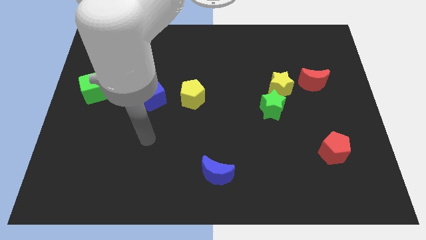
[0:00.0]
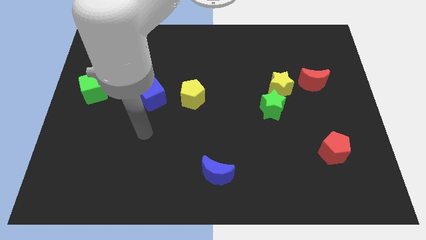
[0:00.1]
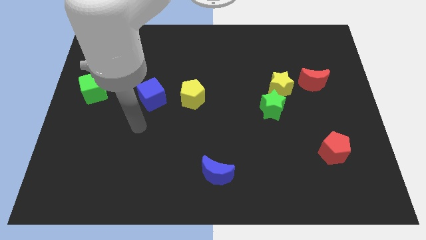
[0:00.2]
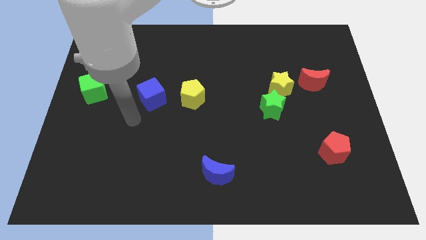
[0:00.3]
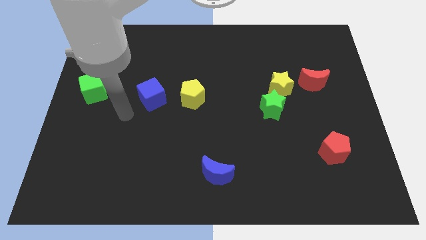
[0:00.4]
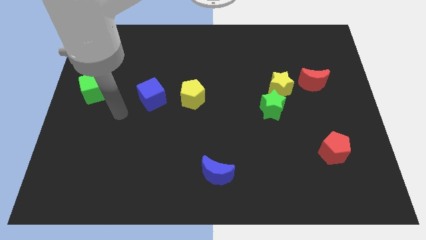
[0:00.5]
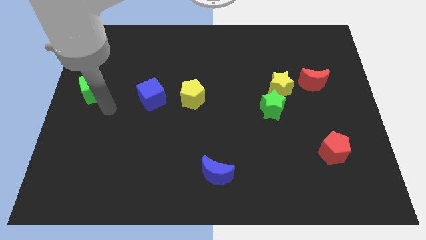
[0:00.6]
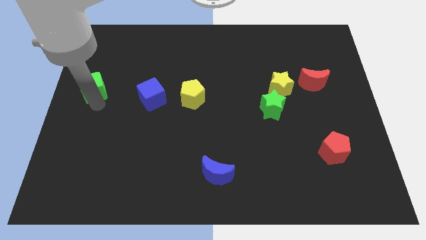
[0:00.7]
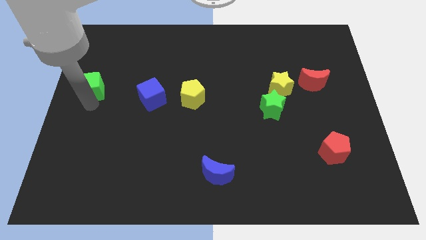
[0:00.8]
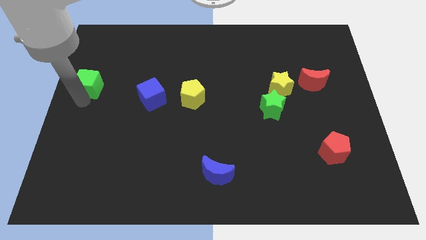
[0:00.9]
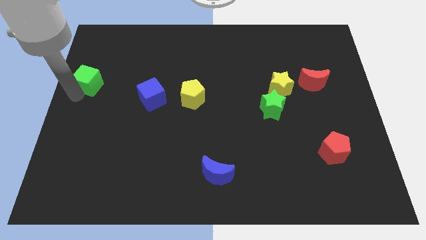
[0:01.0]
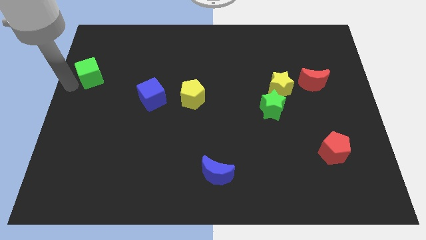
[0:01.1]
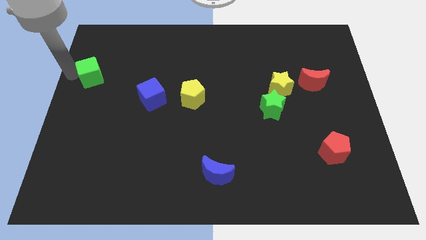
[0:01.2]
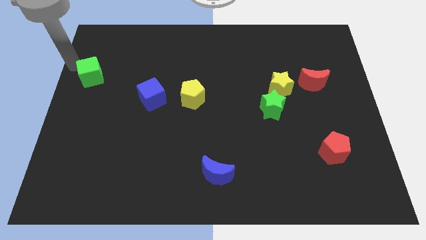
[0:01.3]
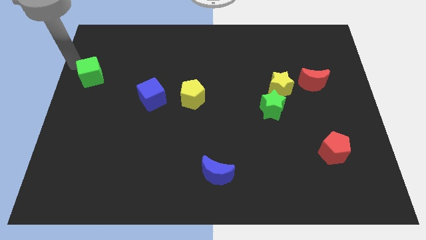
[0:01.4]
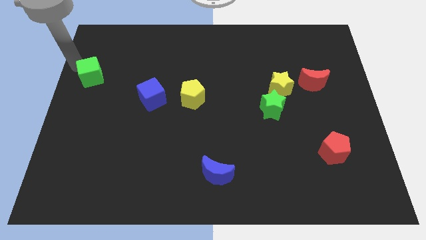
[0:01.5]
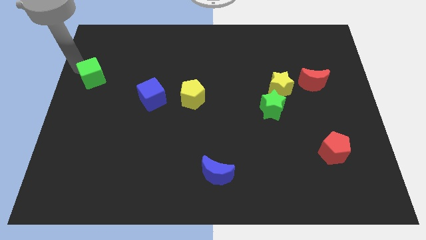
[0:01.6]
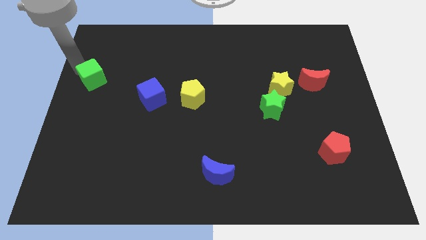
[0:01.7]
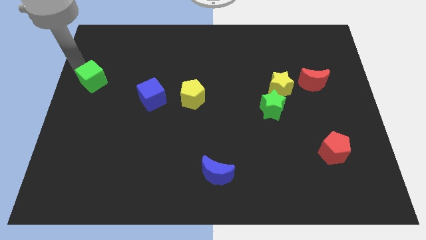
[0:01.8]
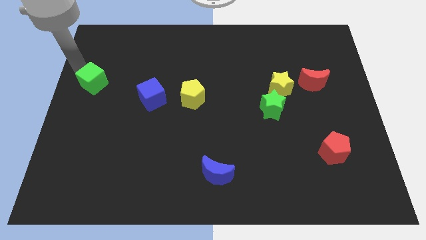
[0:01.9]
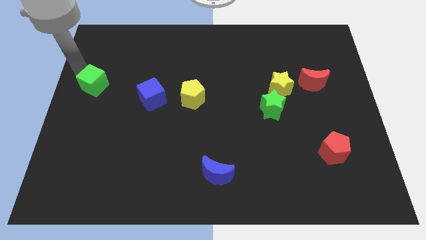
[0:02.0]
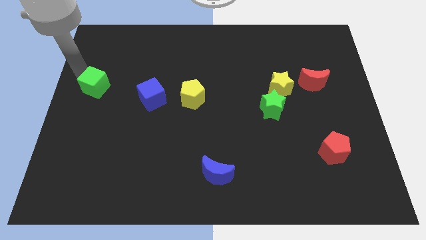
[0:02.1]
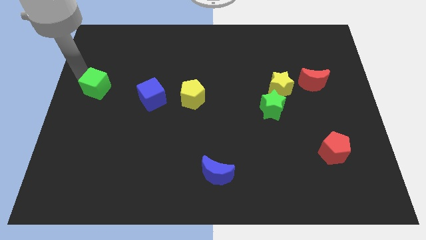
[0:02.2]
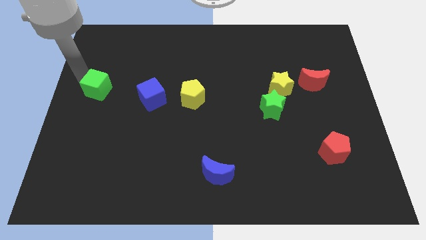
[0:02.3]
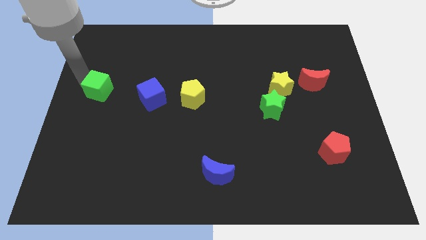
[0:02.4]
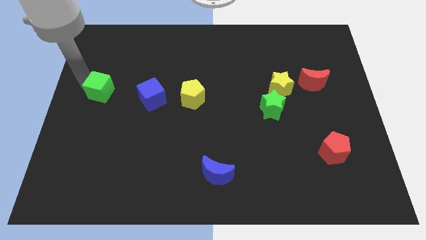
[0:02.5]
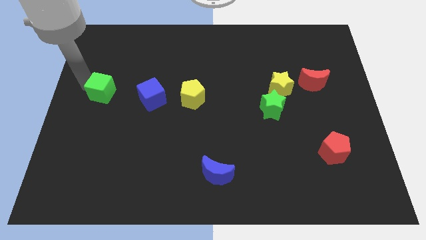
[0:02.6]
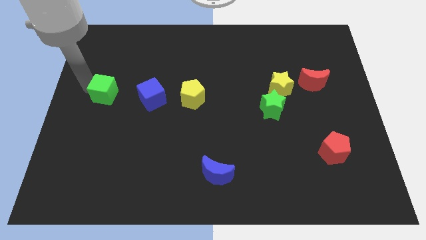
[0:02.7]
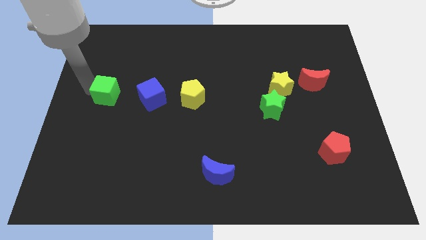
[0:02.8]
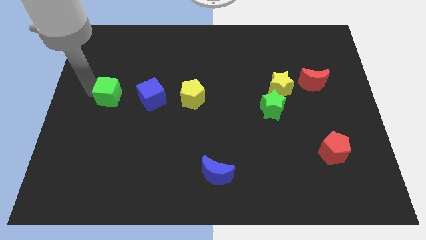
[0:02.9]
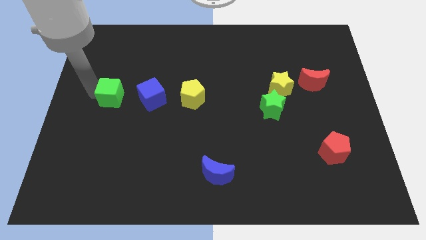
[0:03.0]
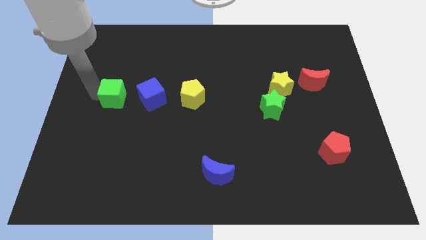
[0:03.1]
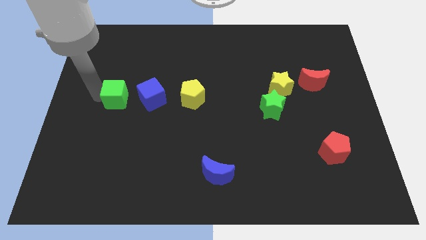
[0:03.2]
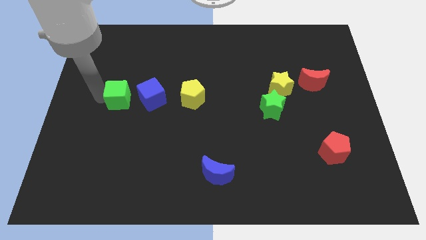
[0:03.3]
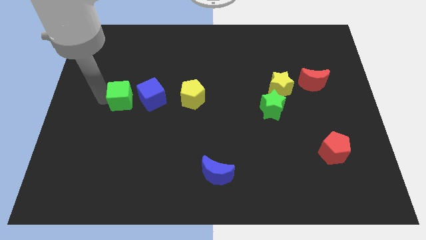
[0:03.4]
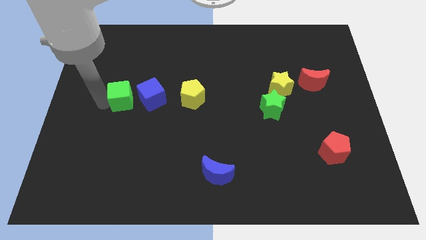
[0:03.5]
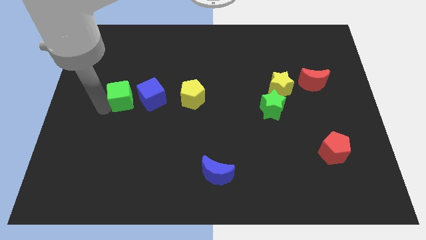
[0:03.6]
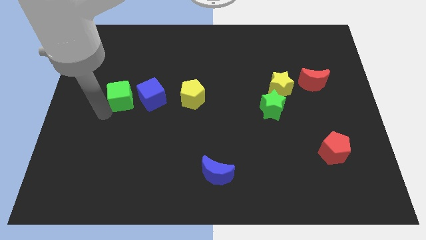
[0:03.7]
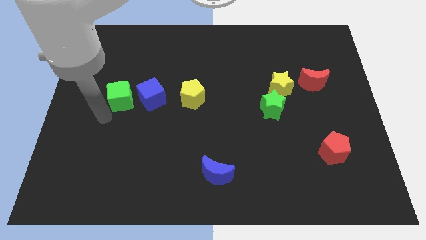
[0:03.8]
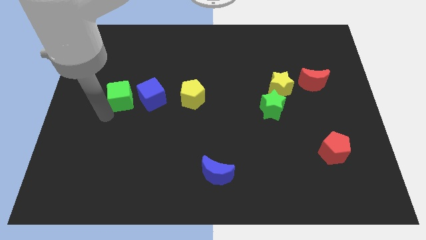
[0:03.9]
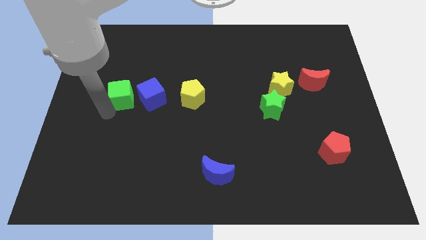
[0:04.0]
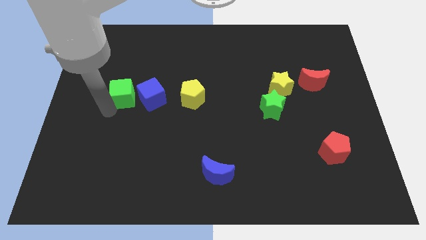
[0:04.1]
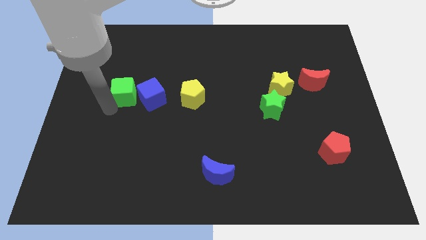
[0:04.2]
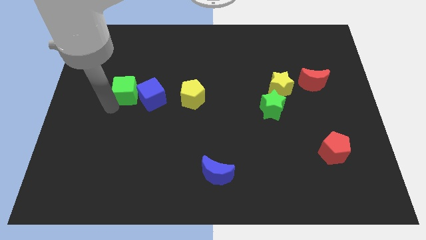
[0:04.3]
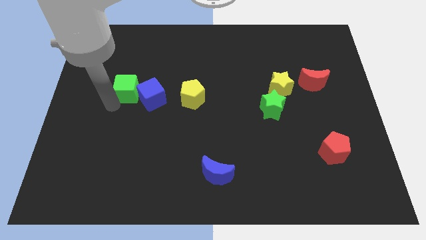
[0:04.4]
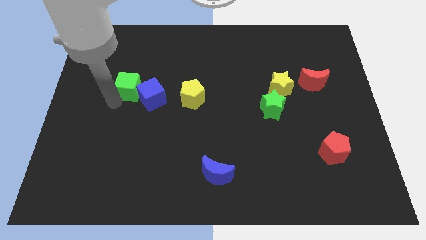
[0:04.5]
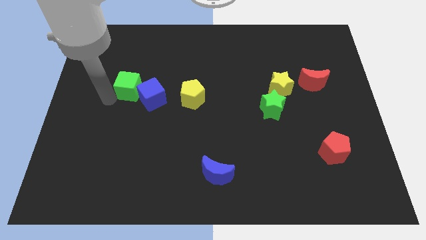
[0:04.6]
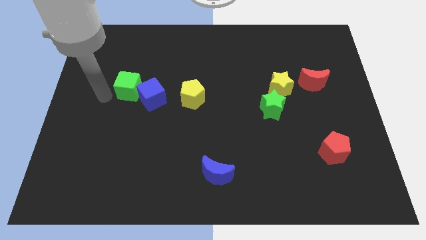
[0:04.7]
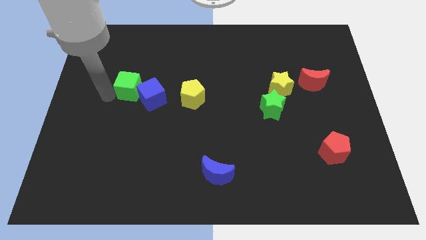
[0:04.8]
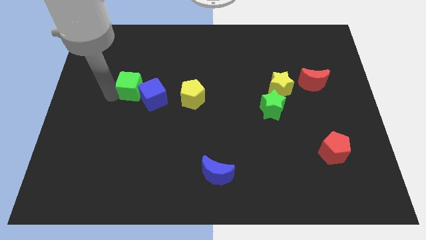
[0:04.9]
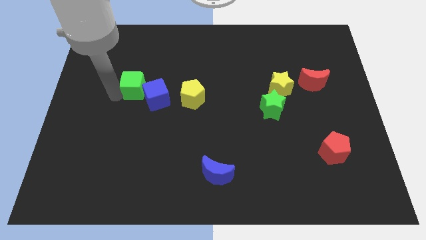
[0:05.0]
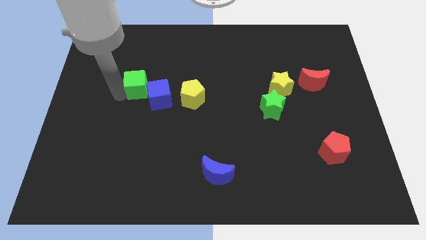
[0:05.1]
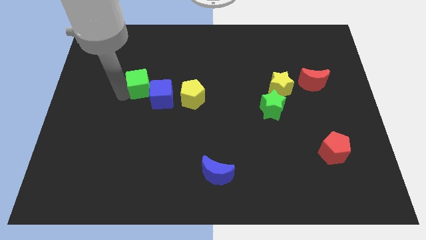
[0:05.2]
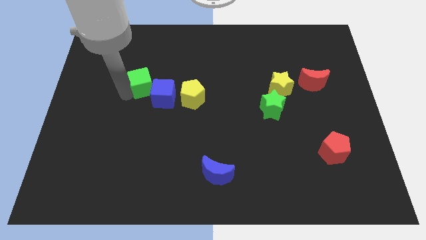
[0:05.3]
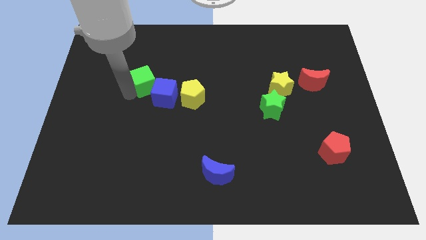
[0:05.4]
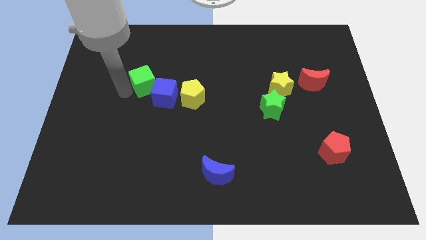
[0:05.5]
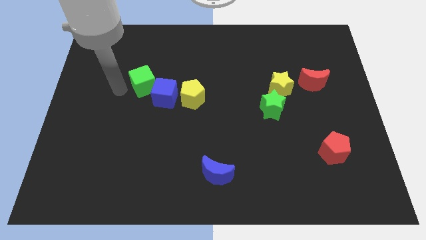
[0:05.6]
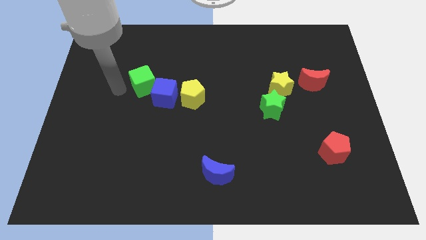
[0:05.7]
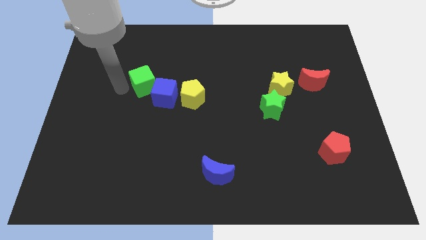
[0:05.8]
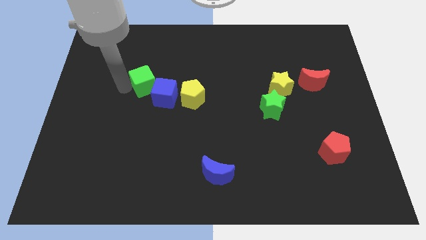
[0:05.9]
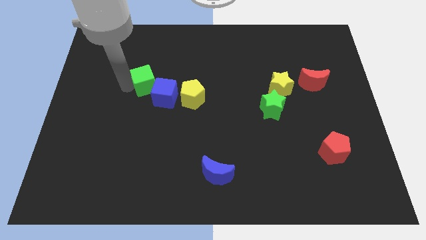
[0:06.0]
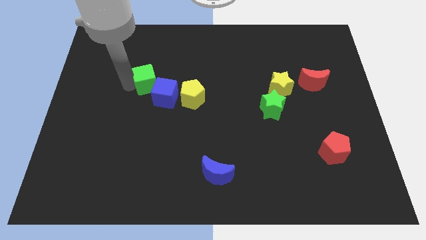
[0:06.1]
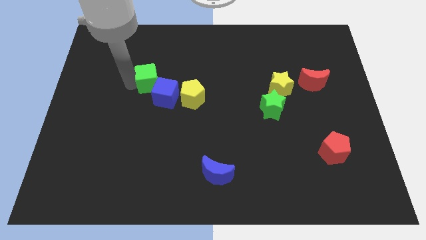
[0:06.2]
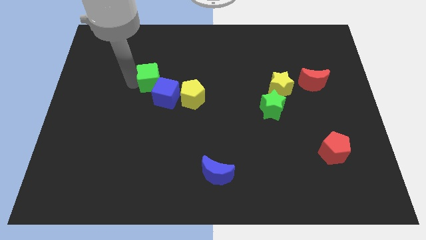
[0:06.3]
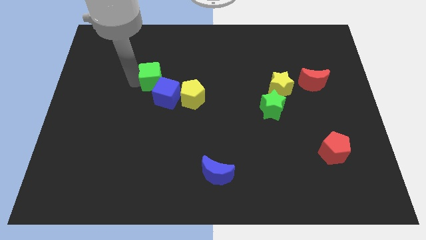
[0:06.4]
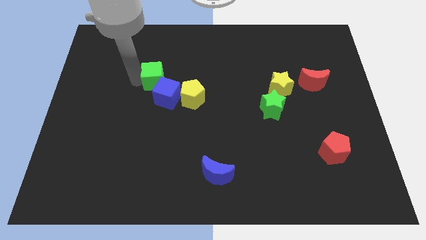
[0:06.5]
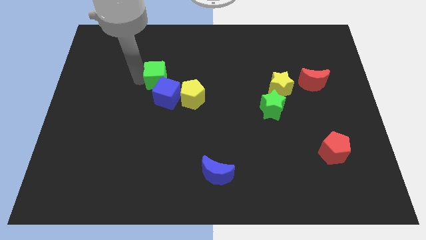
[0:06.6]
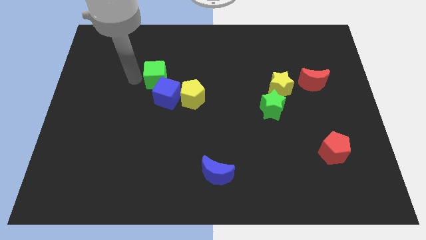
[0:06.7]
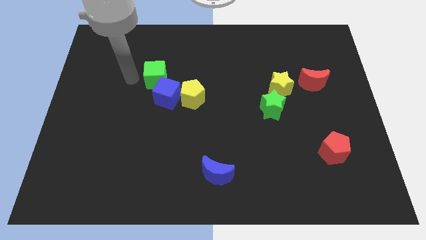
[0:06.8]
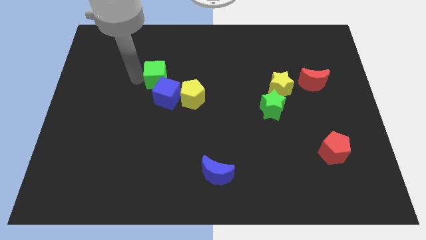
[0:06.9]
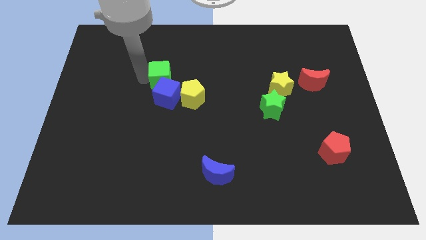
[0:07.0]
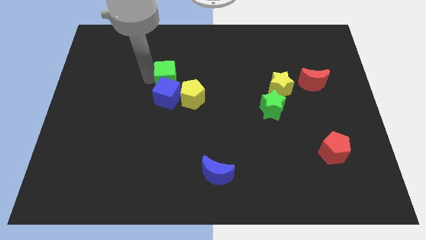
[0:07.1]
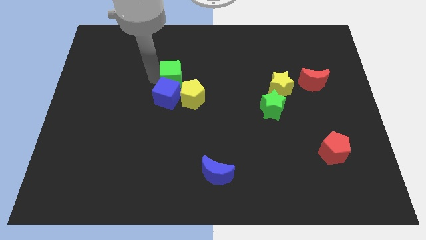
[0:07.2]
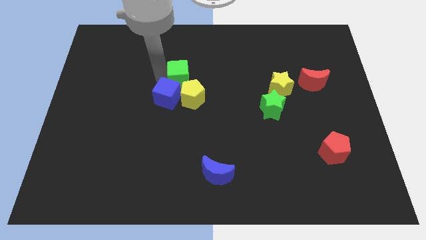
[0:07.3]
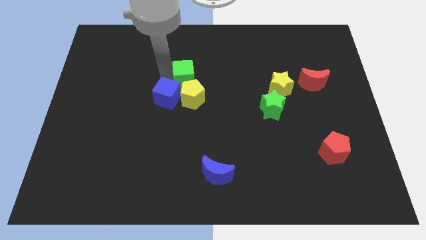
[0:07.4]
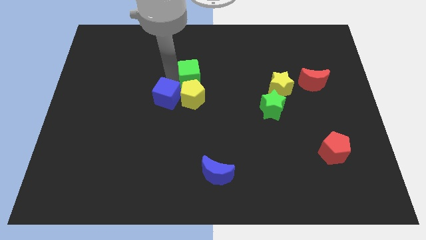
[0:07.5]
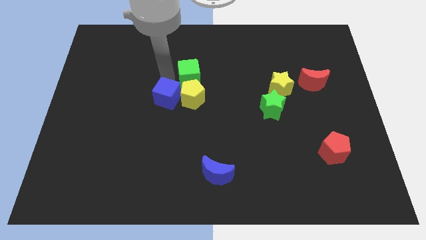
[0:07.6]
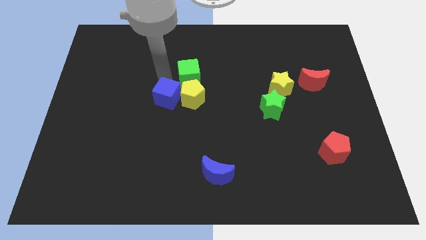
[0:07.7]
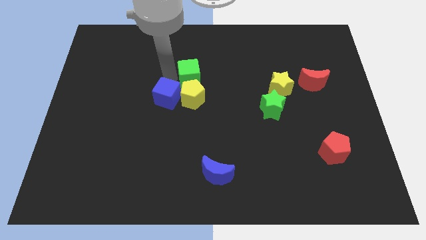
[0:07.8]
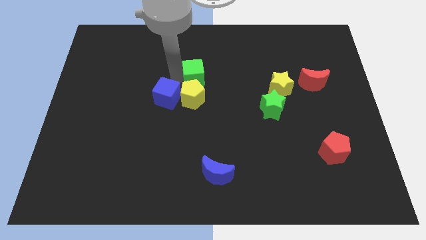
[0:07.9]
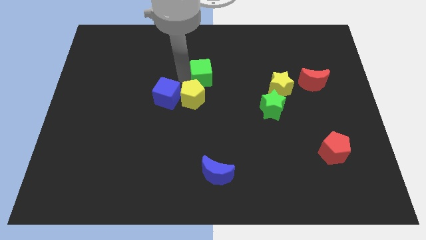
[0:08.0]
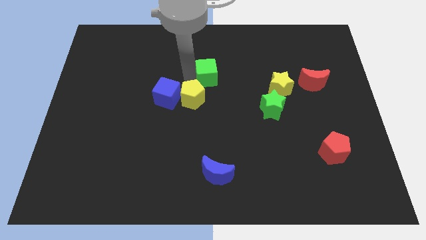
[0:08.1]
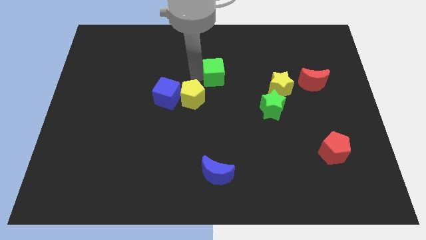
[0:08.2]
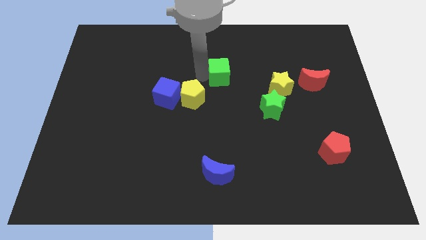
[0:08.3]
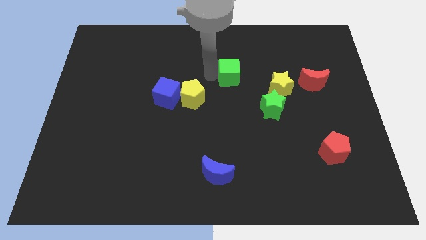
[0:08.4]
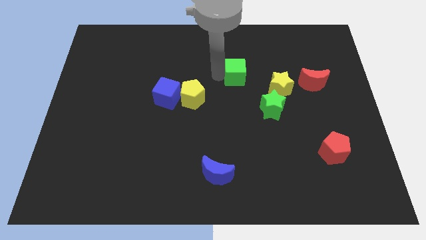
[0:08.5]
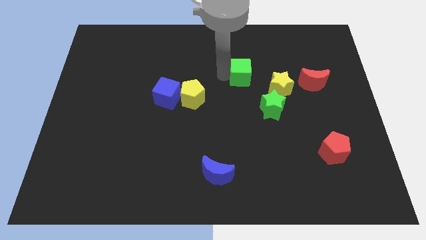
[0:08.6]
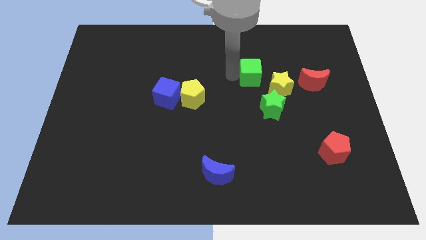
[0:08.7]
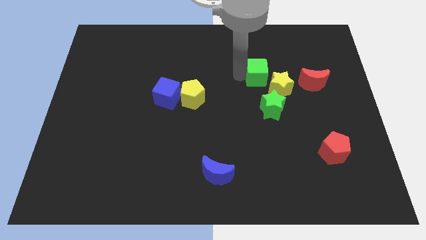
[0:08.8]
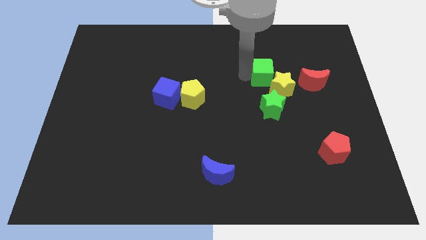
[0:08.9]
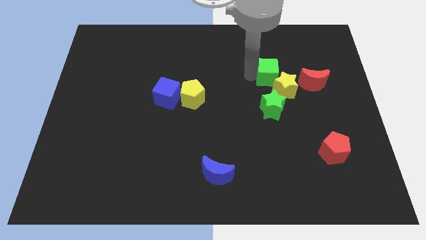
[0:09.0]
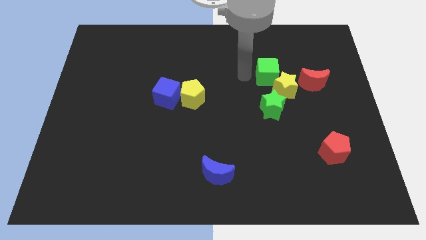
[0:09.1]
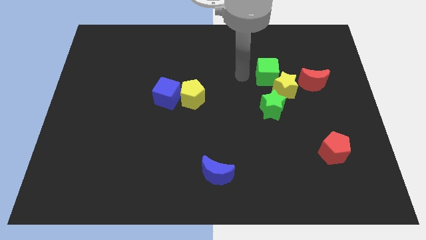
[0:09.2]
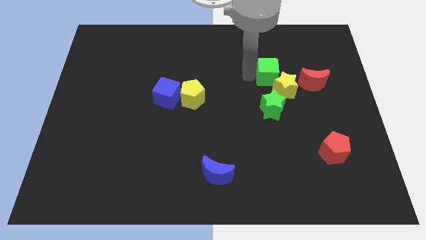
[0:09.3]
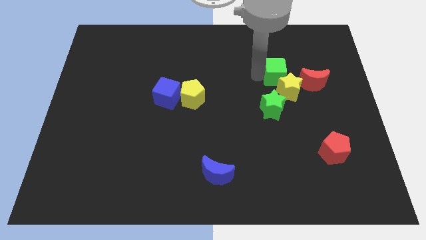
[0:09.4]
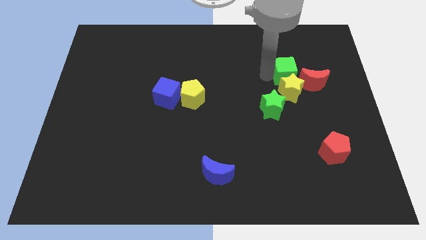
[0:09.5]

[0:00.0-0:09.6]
put the green cube diagonally up and to the right of the yellow star
